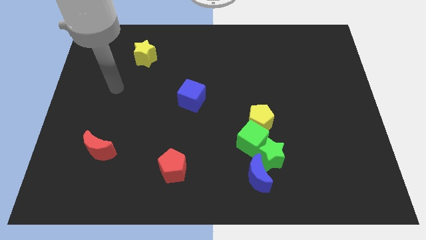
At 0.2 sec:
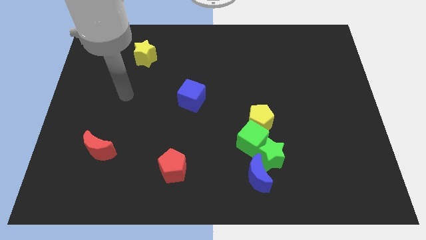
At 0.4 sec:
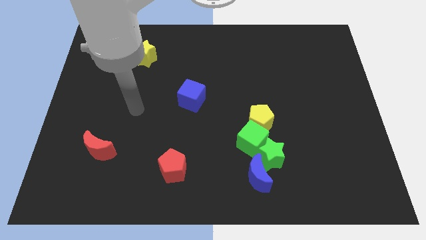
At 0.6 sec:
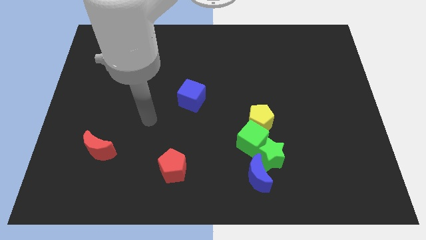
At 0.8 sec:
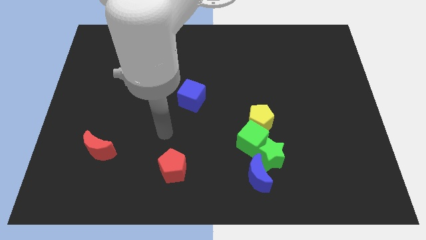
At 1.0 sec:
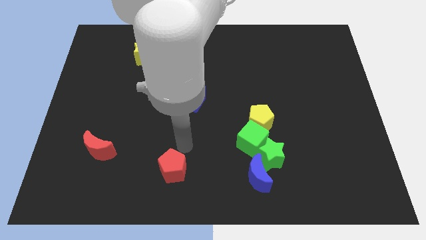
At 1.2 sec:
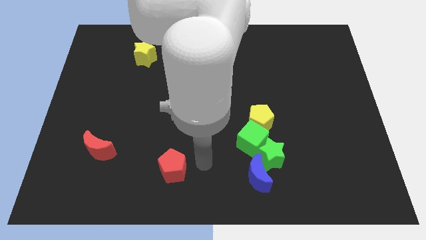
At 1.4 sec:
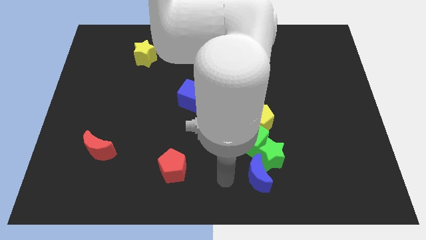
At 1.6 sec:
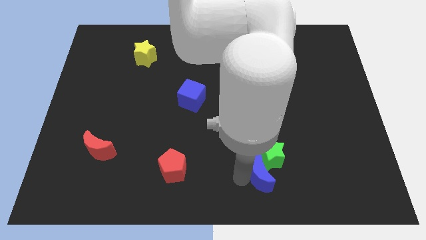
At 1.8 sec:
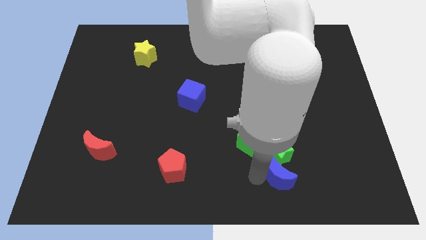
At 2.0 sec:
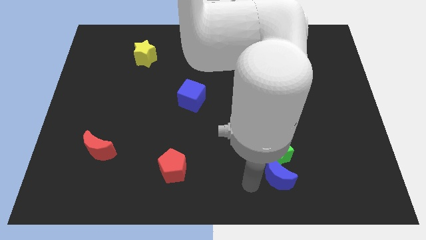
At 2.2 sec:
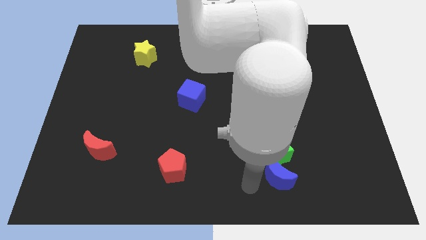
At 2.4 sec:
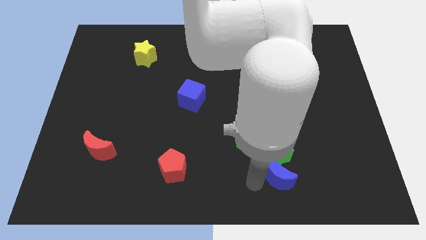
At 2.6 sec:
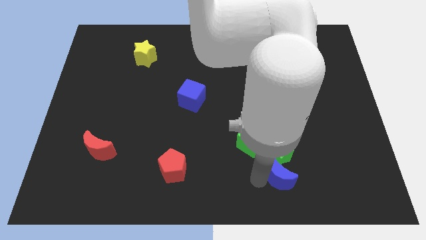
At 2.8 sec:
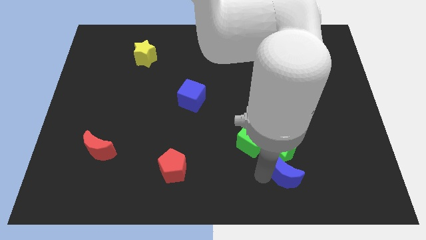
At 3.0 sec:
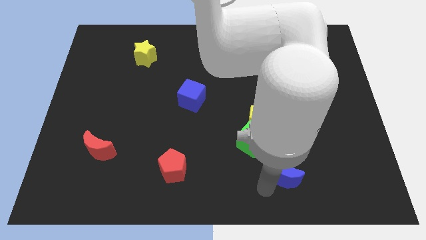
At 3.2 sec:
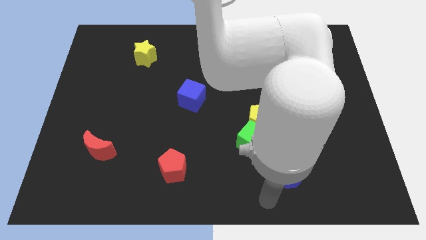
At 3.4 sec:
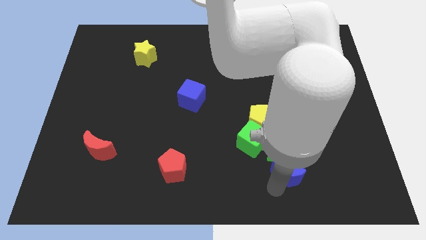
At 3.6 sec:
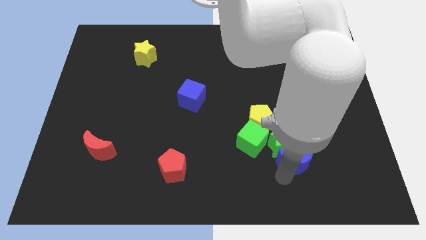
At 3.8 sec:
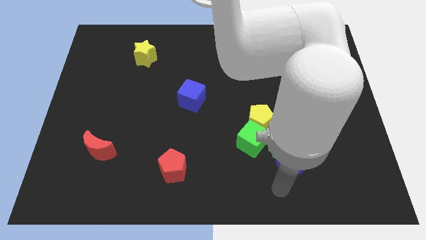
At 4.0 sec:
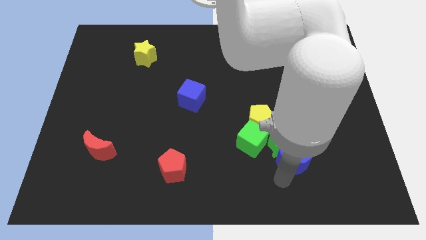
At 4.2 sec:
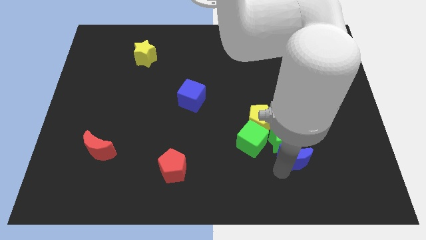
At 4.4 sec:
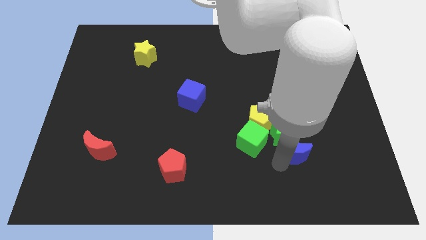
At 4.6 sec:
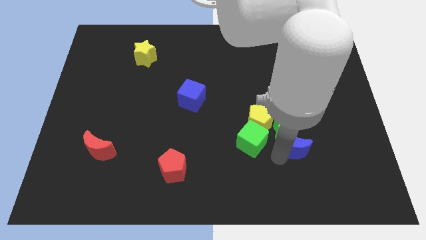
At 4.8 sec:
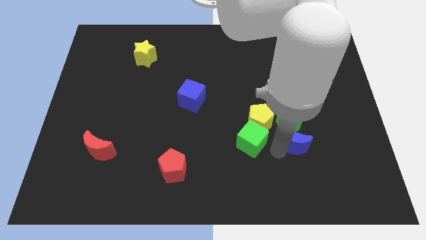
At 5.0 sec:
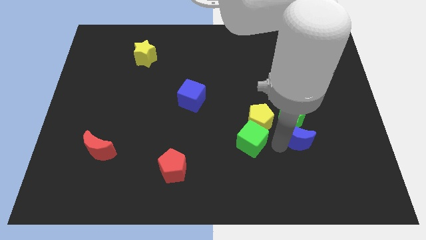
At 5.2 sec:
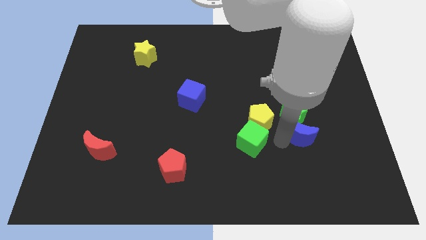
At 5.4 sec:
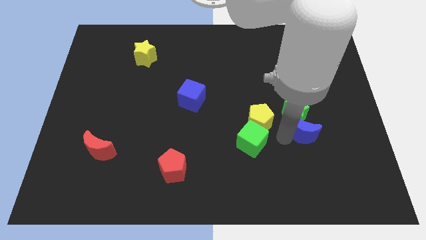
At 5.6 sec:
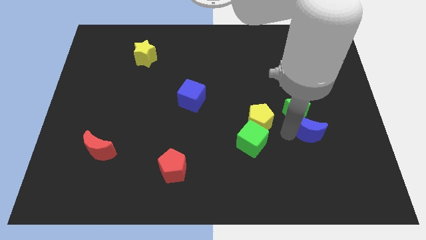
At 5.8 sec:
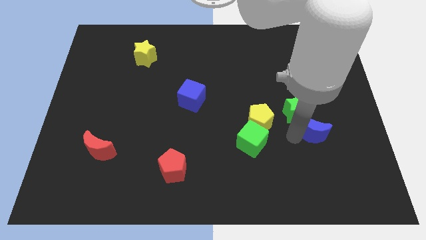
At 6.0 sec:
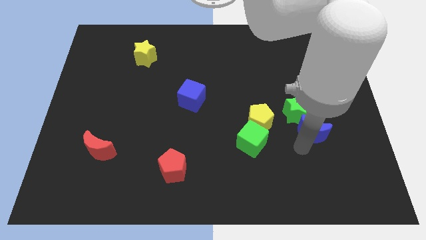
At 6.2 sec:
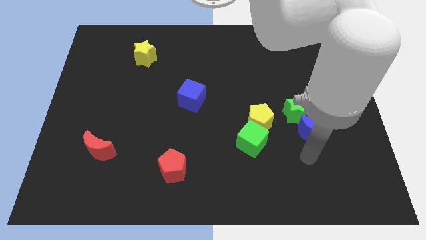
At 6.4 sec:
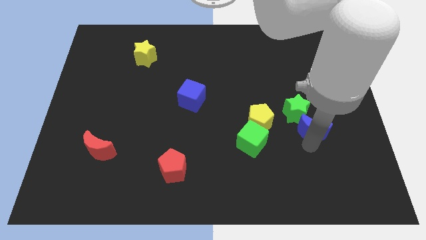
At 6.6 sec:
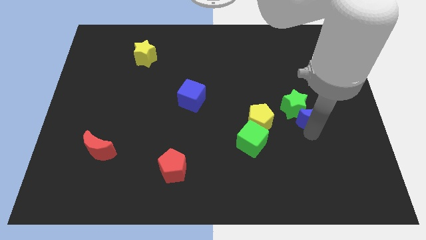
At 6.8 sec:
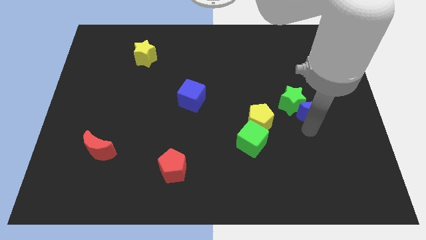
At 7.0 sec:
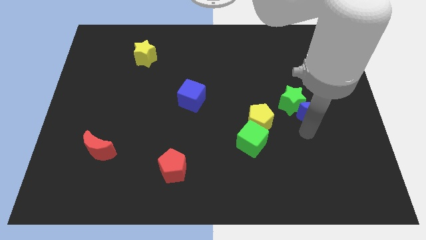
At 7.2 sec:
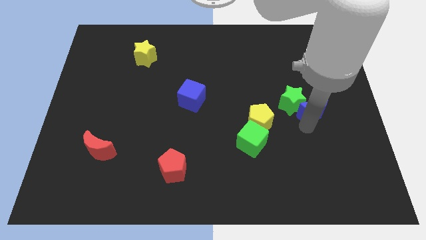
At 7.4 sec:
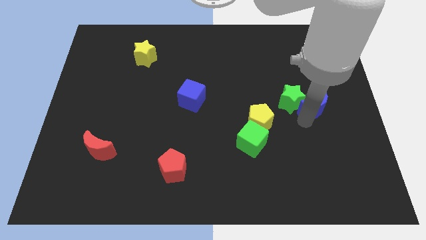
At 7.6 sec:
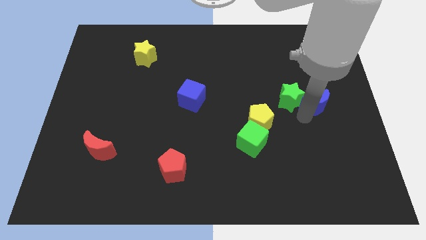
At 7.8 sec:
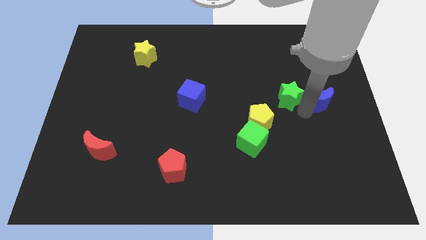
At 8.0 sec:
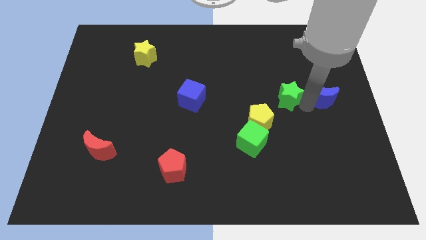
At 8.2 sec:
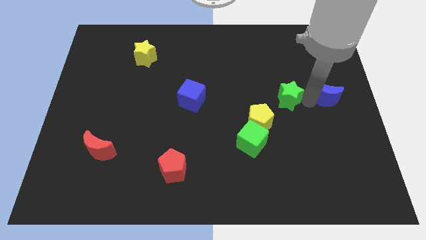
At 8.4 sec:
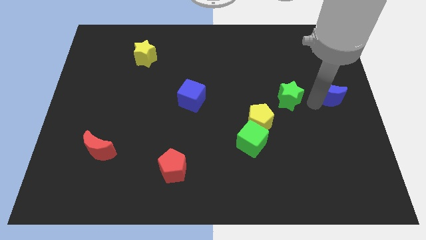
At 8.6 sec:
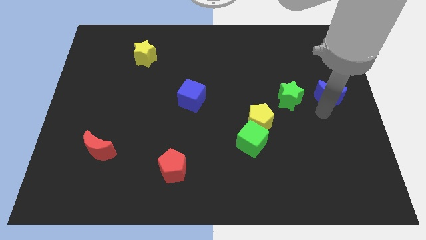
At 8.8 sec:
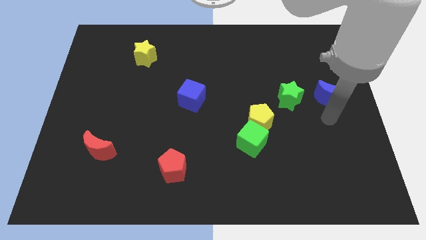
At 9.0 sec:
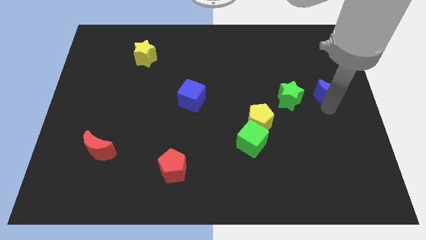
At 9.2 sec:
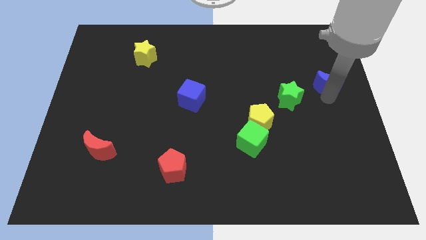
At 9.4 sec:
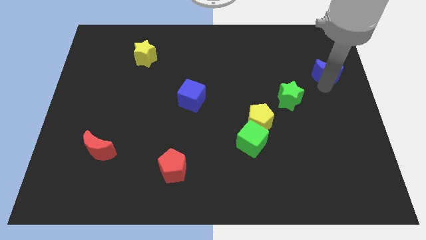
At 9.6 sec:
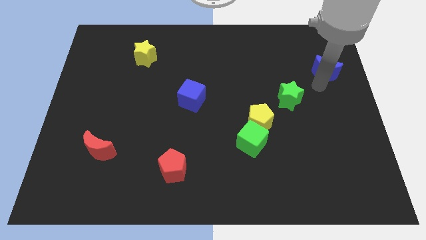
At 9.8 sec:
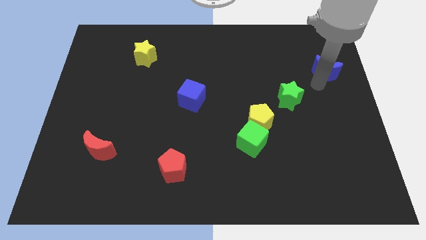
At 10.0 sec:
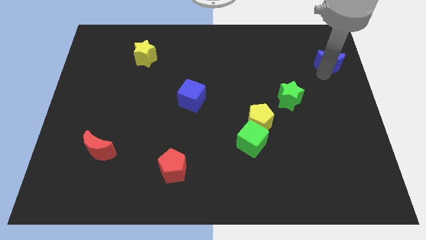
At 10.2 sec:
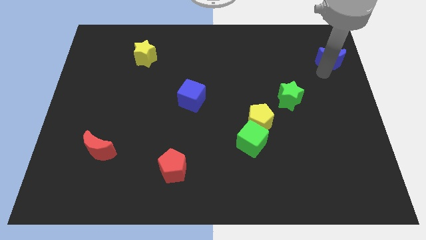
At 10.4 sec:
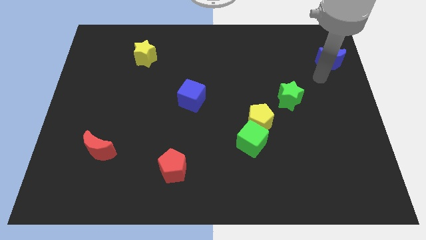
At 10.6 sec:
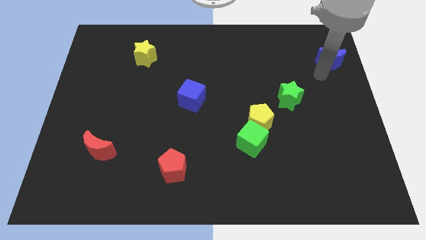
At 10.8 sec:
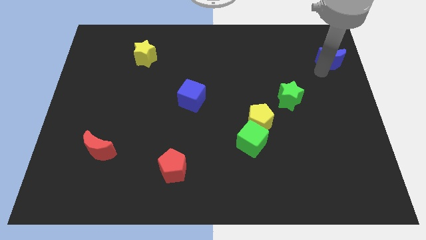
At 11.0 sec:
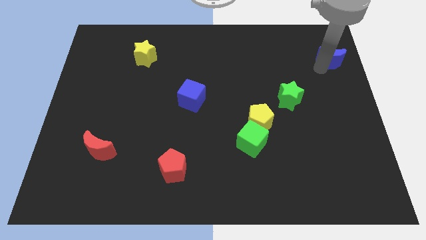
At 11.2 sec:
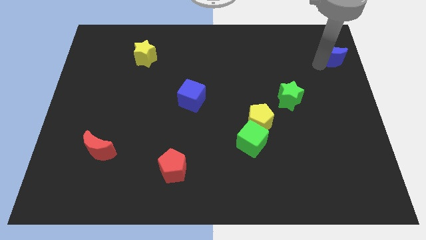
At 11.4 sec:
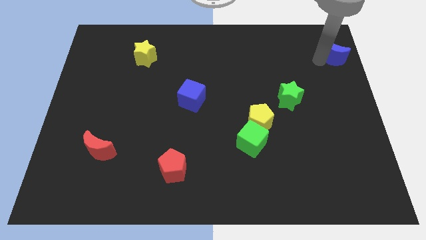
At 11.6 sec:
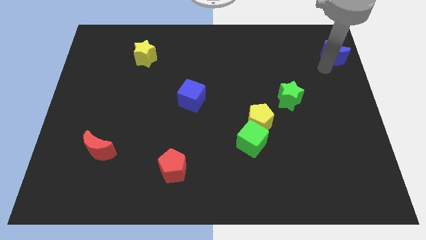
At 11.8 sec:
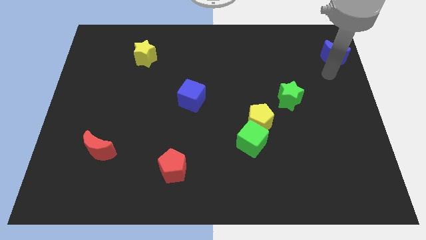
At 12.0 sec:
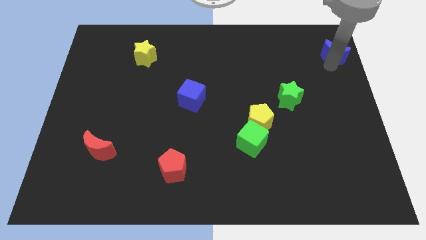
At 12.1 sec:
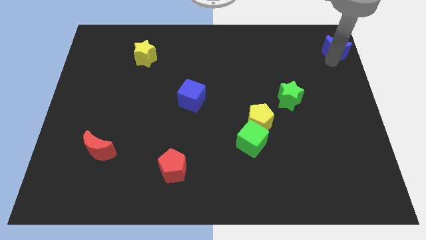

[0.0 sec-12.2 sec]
slide the blue moon to the top right corner

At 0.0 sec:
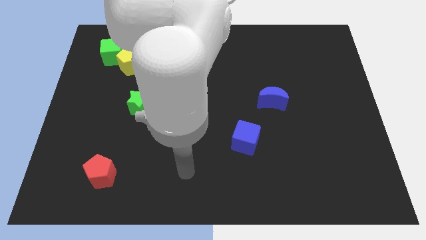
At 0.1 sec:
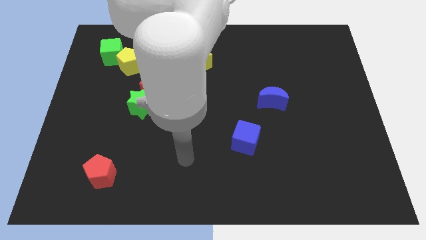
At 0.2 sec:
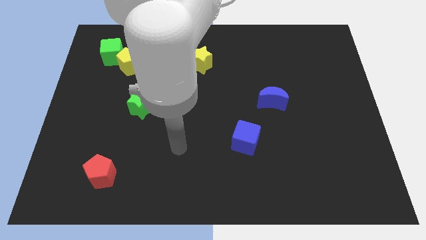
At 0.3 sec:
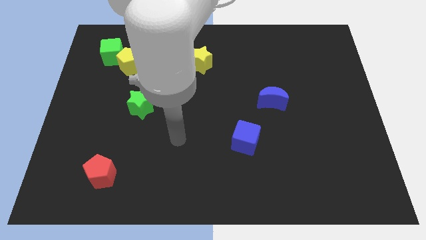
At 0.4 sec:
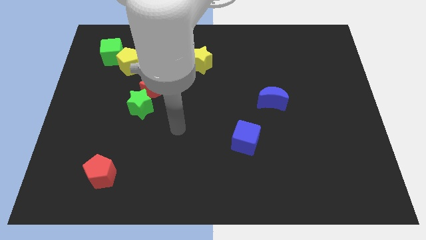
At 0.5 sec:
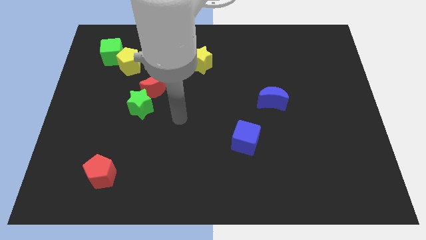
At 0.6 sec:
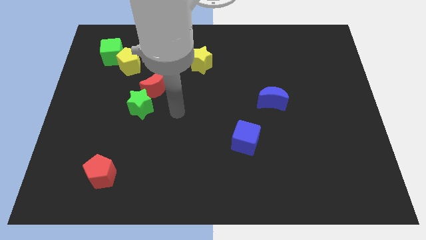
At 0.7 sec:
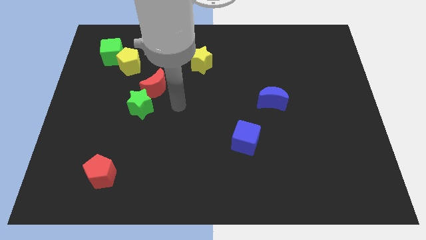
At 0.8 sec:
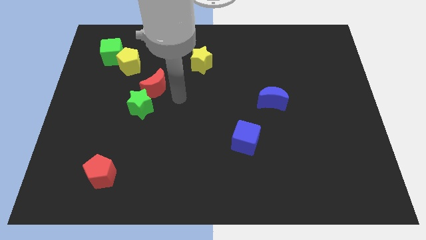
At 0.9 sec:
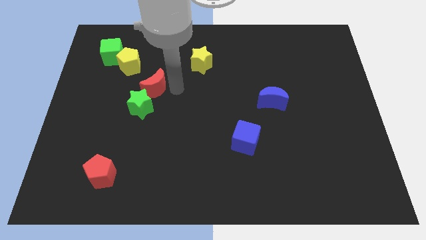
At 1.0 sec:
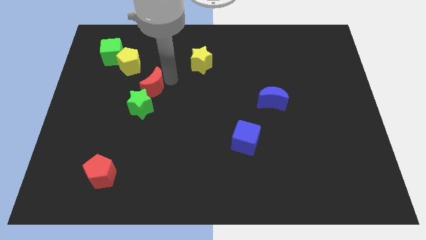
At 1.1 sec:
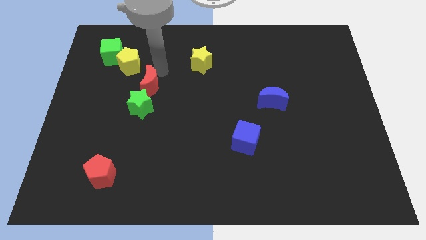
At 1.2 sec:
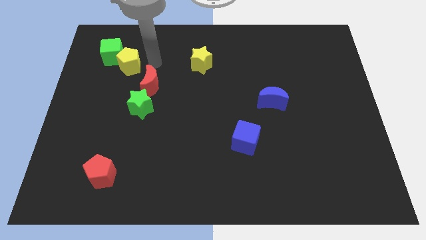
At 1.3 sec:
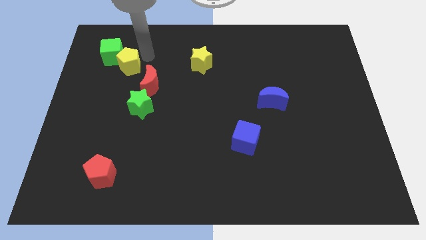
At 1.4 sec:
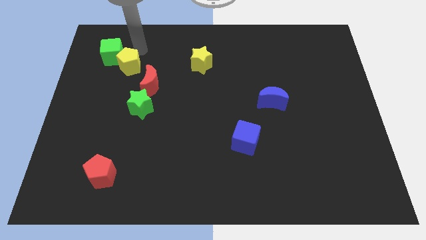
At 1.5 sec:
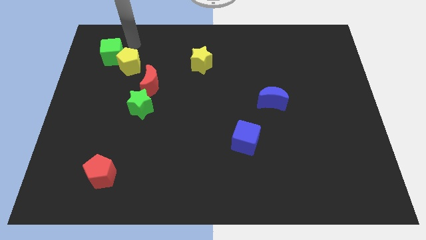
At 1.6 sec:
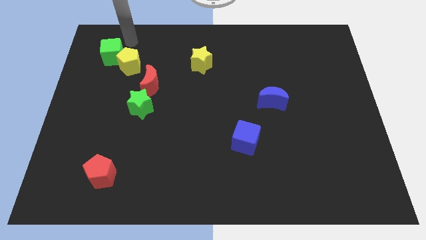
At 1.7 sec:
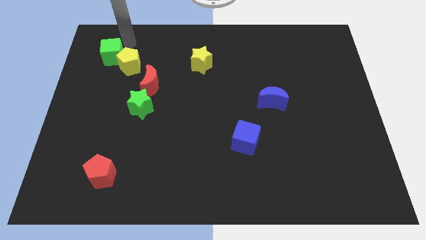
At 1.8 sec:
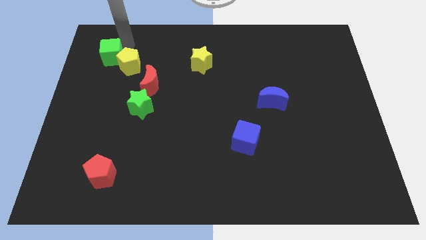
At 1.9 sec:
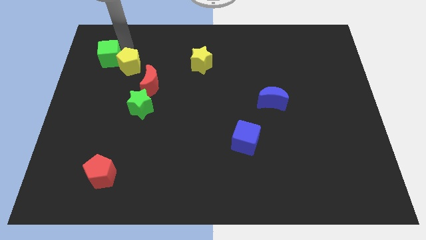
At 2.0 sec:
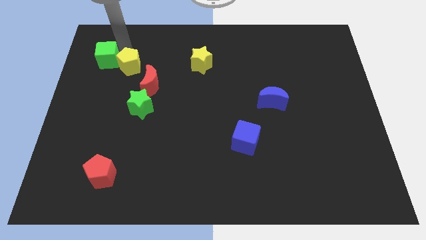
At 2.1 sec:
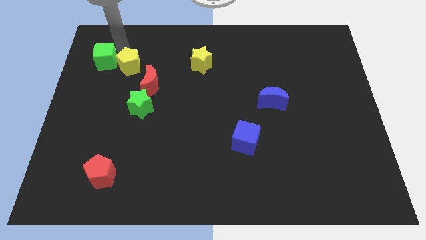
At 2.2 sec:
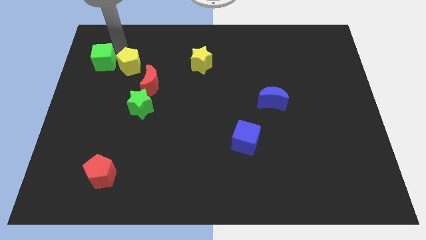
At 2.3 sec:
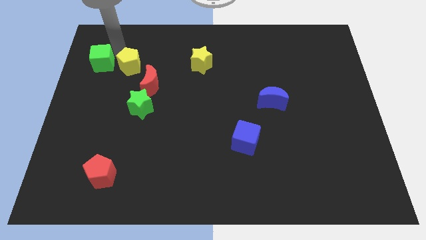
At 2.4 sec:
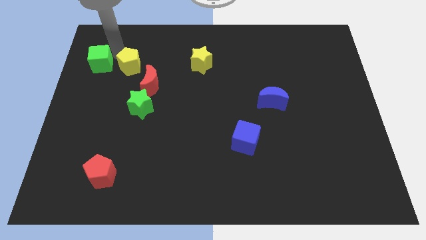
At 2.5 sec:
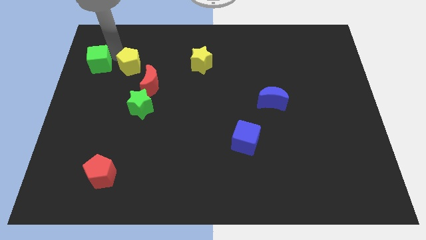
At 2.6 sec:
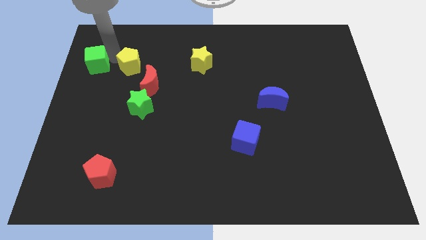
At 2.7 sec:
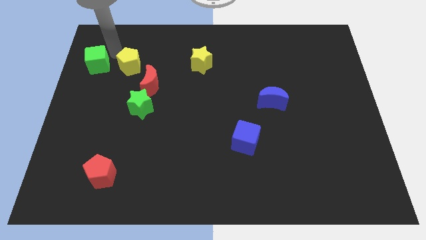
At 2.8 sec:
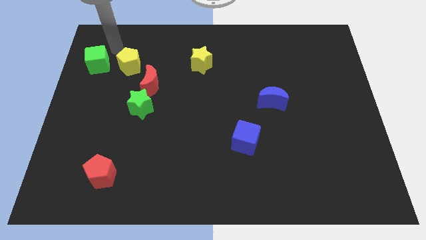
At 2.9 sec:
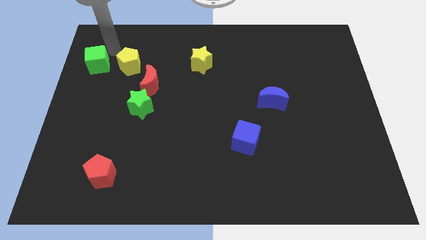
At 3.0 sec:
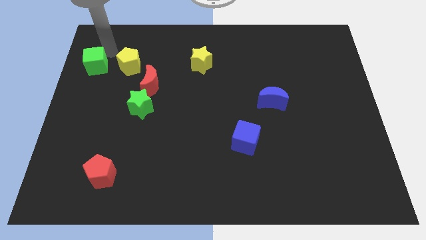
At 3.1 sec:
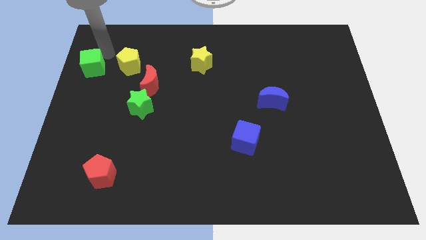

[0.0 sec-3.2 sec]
move the green cube to the left side of the board
